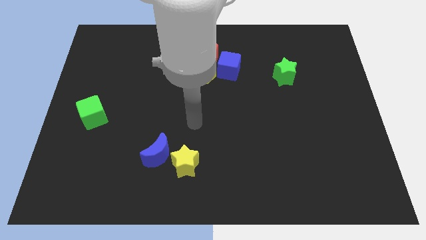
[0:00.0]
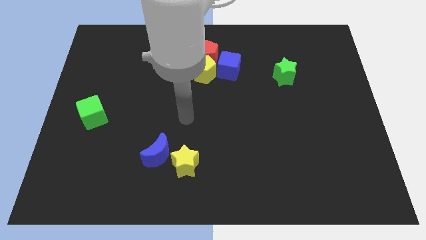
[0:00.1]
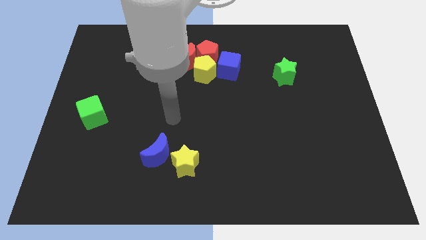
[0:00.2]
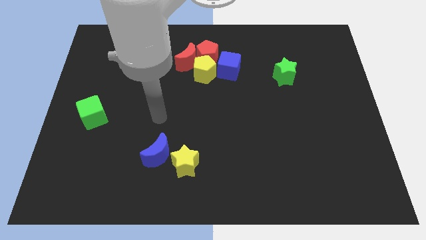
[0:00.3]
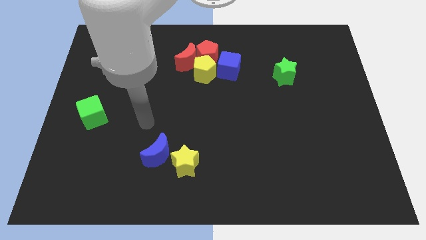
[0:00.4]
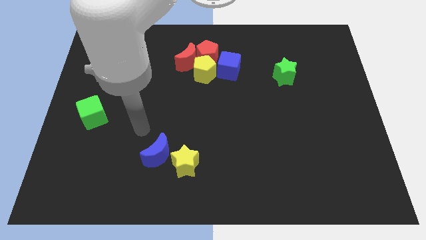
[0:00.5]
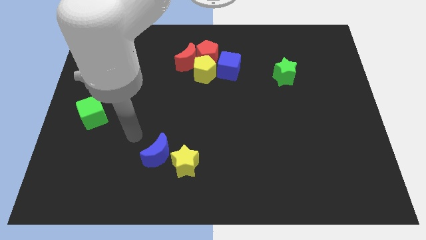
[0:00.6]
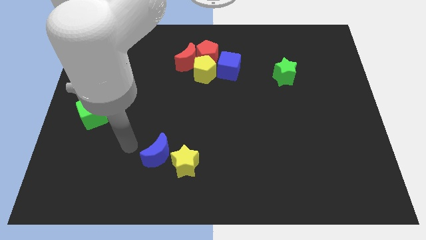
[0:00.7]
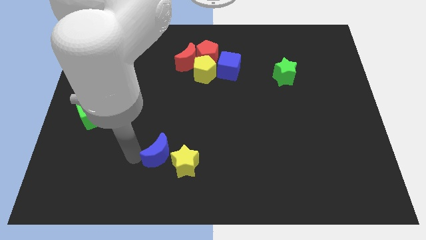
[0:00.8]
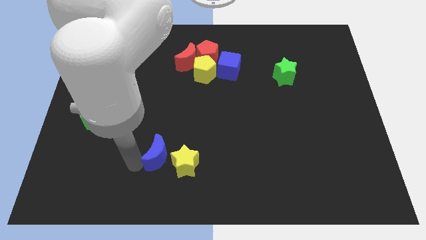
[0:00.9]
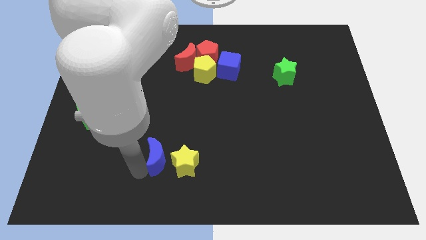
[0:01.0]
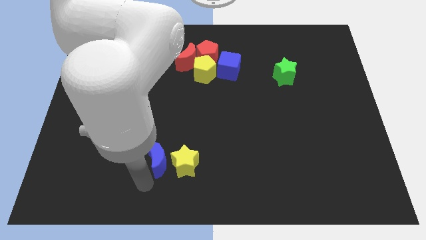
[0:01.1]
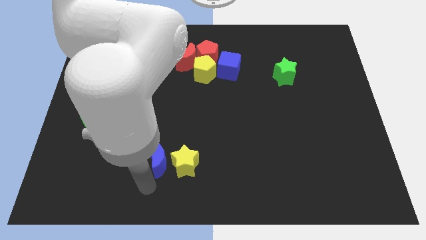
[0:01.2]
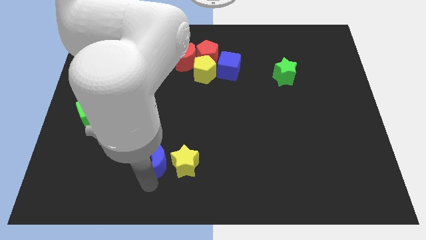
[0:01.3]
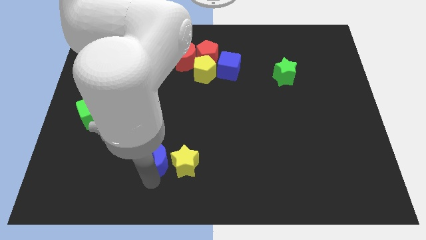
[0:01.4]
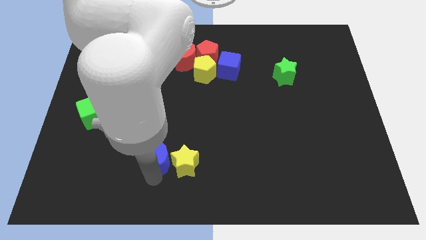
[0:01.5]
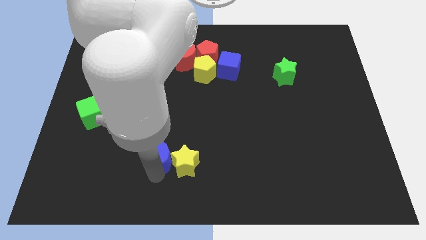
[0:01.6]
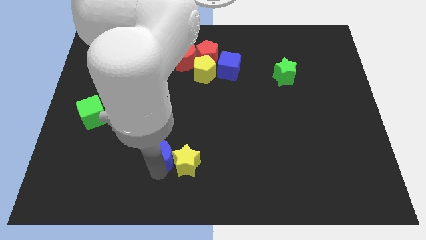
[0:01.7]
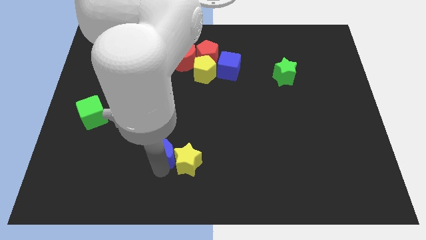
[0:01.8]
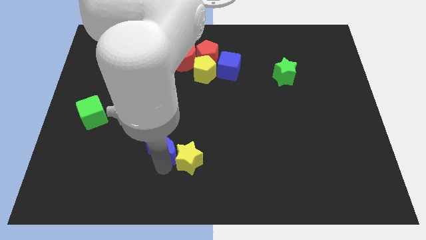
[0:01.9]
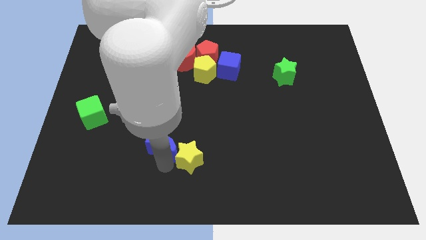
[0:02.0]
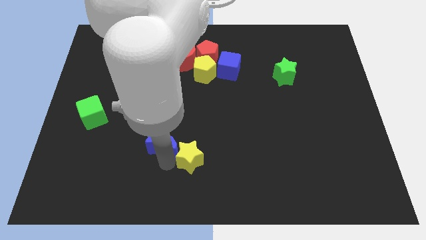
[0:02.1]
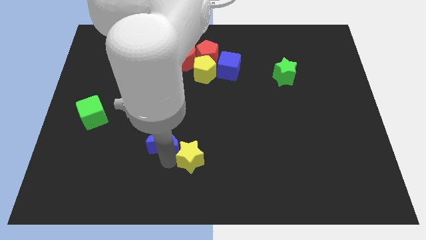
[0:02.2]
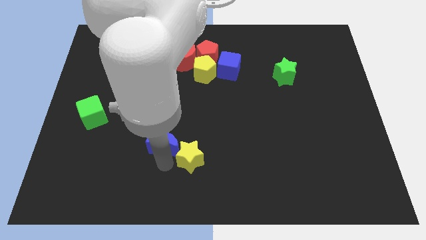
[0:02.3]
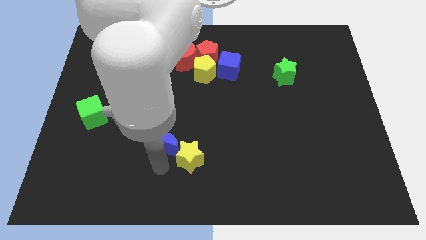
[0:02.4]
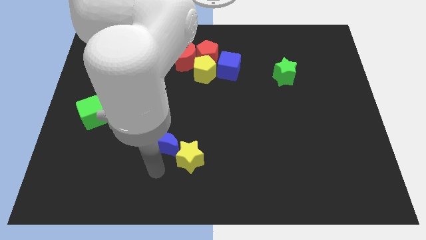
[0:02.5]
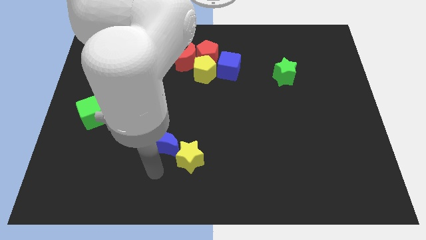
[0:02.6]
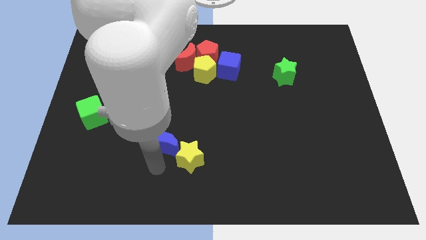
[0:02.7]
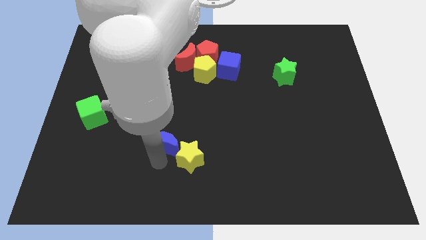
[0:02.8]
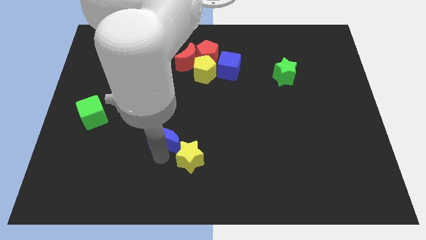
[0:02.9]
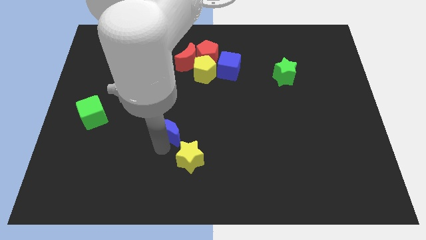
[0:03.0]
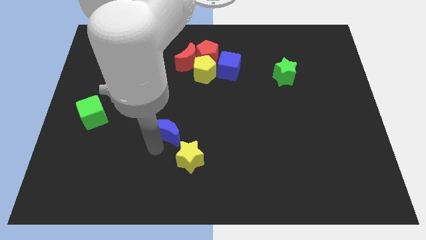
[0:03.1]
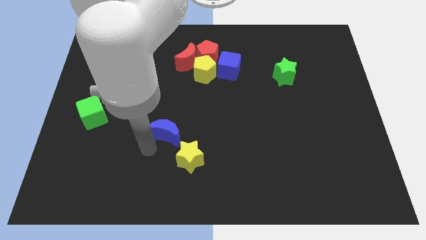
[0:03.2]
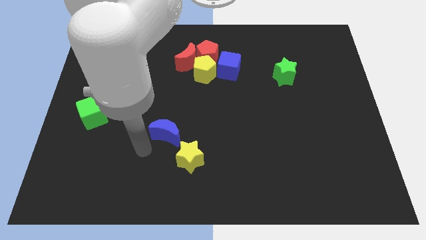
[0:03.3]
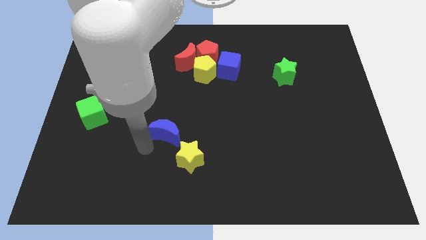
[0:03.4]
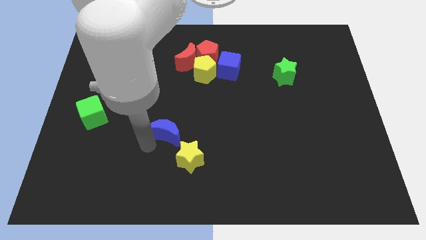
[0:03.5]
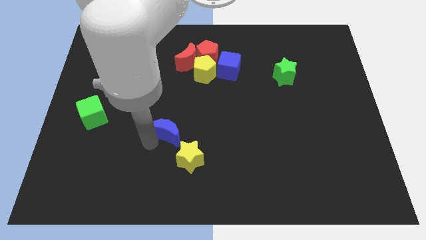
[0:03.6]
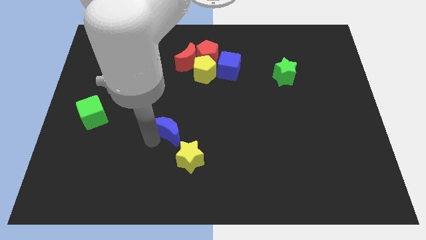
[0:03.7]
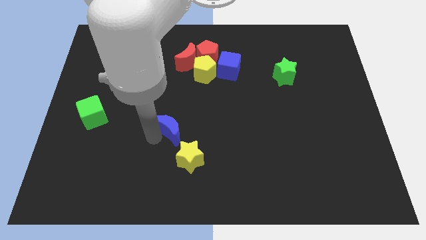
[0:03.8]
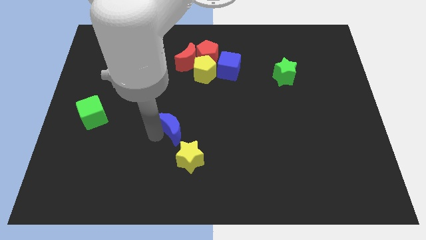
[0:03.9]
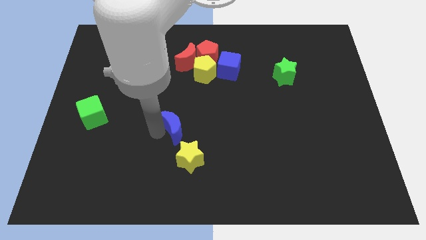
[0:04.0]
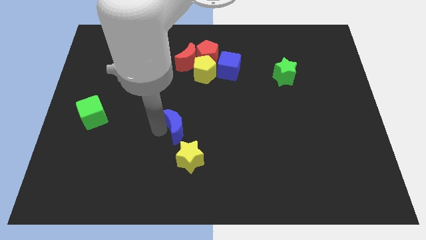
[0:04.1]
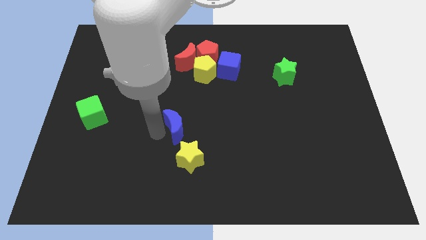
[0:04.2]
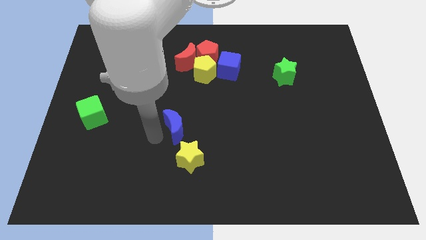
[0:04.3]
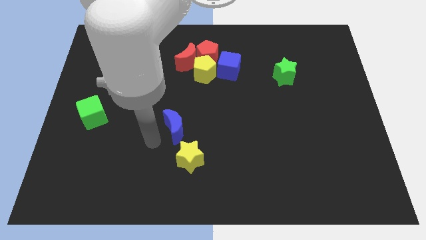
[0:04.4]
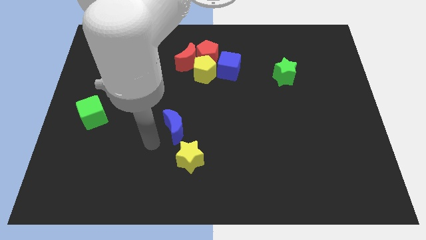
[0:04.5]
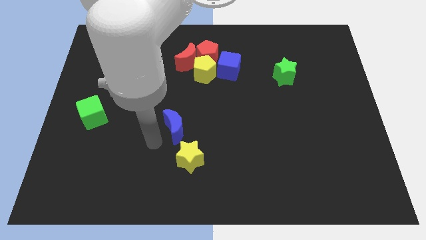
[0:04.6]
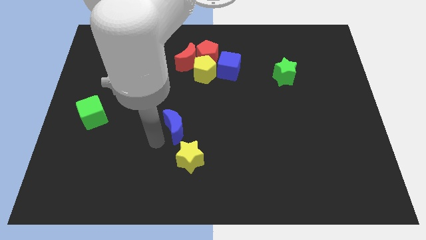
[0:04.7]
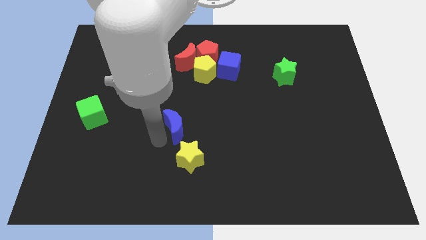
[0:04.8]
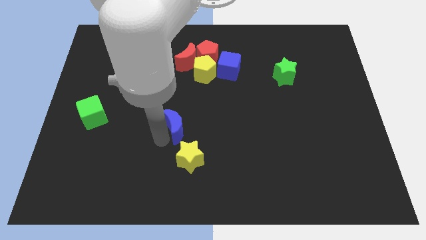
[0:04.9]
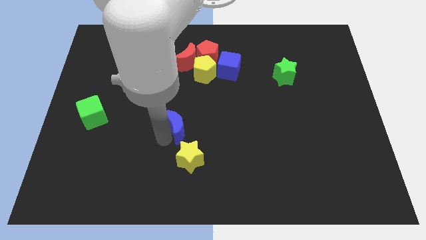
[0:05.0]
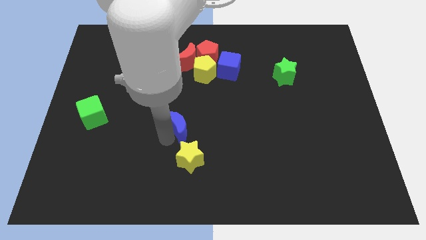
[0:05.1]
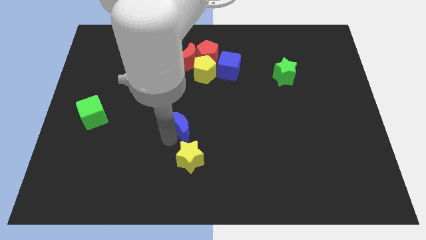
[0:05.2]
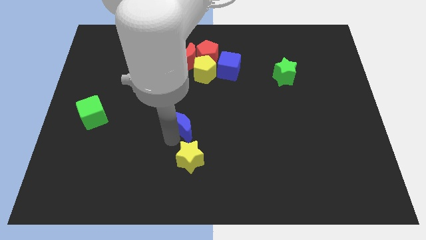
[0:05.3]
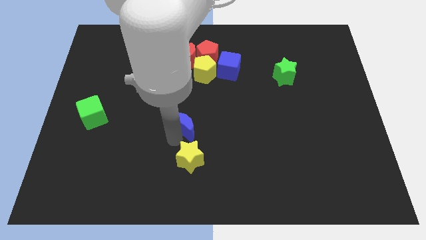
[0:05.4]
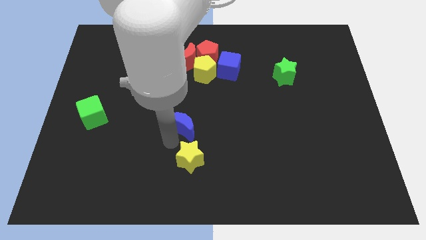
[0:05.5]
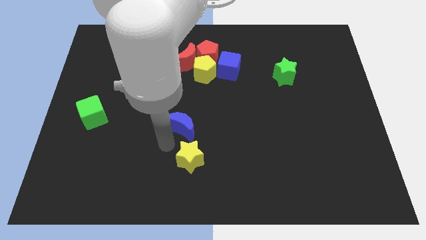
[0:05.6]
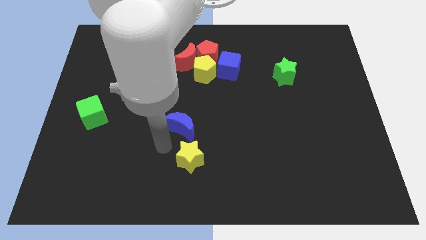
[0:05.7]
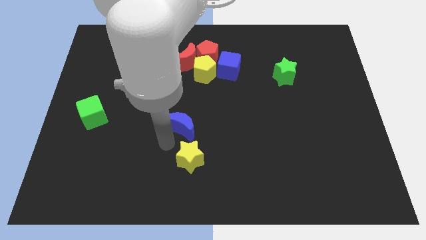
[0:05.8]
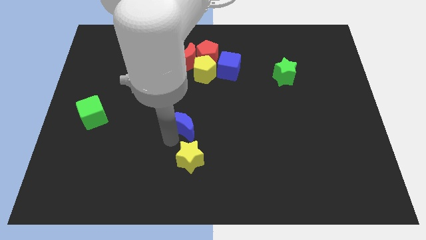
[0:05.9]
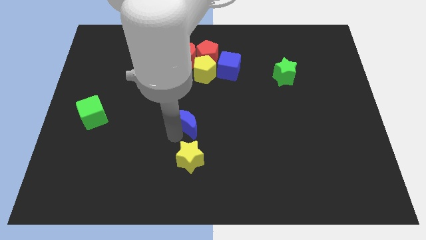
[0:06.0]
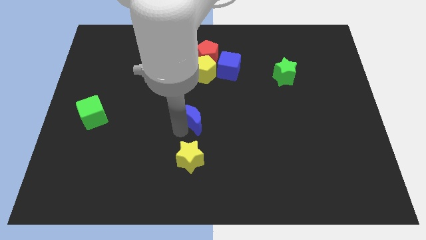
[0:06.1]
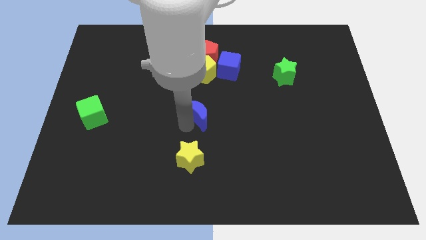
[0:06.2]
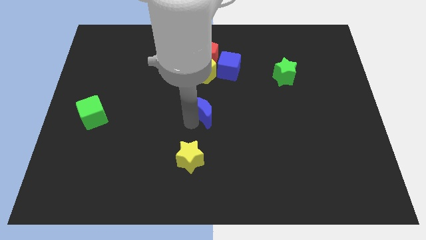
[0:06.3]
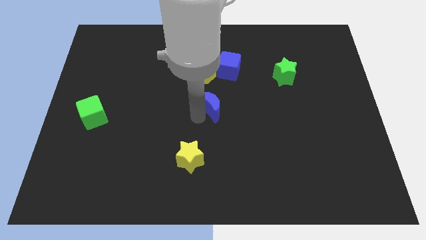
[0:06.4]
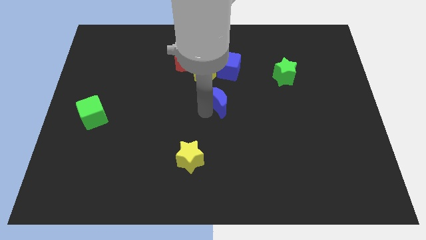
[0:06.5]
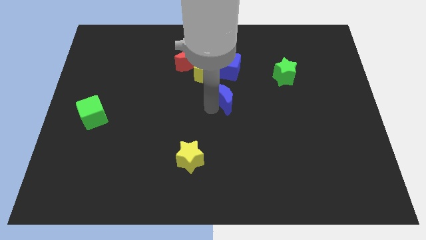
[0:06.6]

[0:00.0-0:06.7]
push the blue moon up and right

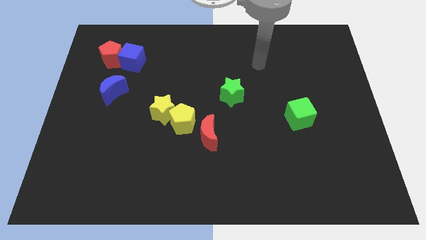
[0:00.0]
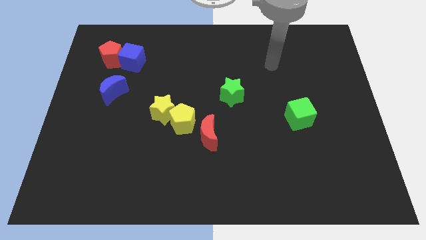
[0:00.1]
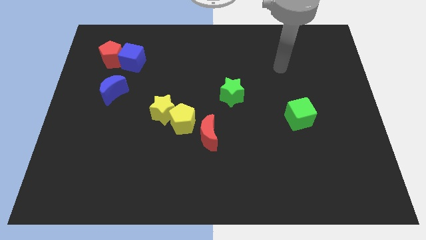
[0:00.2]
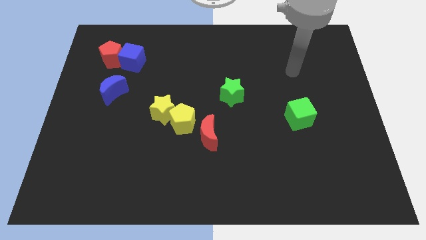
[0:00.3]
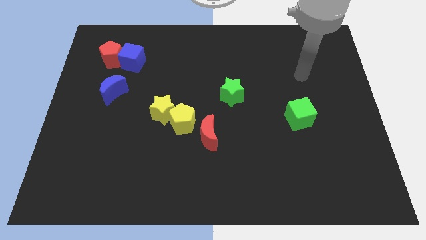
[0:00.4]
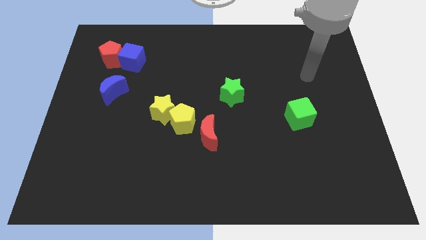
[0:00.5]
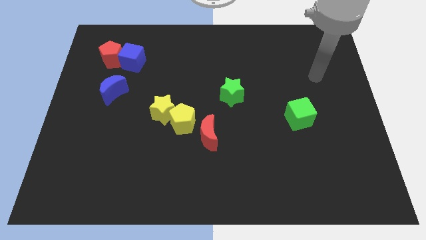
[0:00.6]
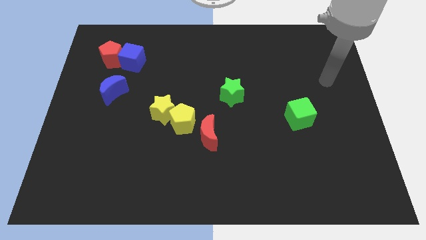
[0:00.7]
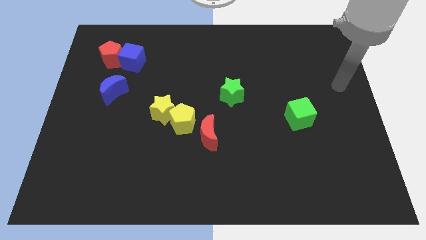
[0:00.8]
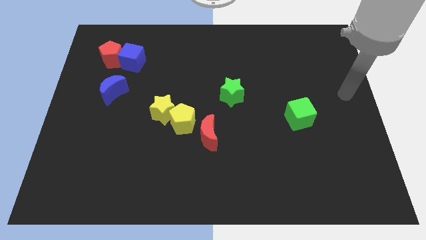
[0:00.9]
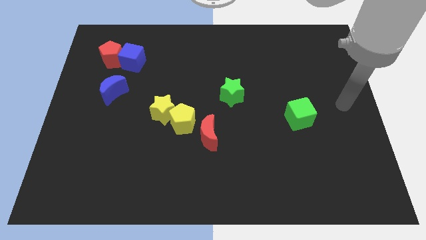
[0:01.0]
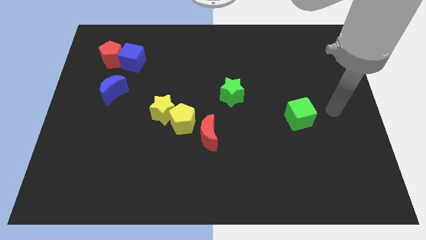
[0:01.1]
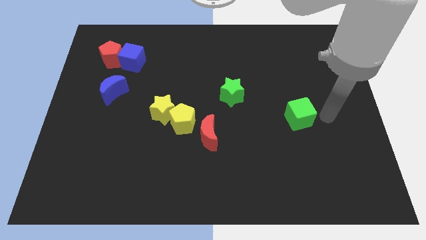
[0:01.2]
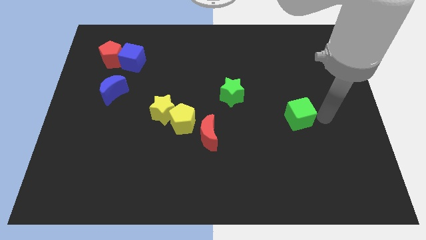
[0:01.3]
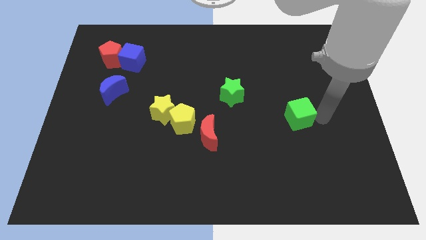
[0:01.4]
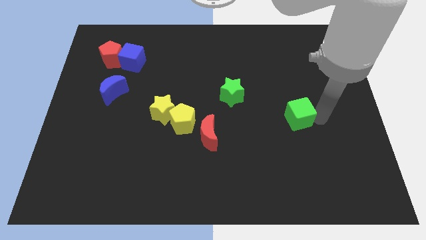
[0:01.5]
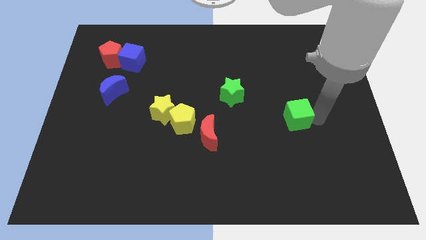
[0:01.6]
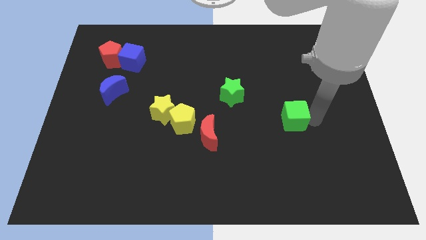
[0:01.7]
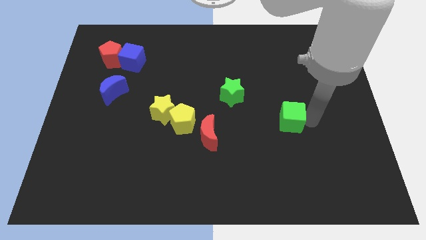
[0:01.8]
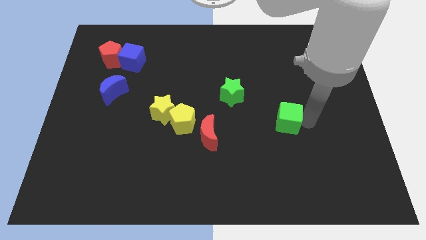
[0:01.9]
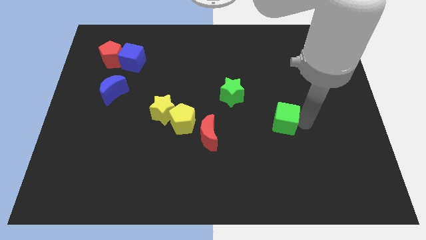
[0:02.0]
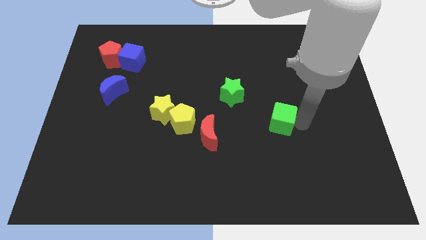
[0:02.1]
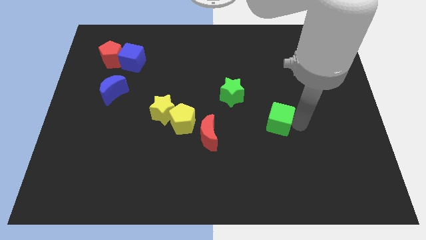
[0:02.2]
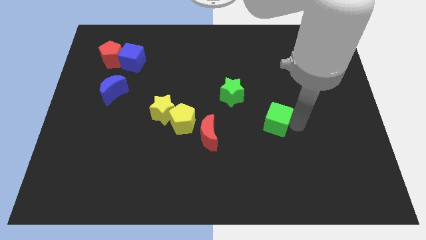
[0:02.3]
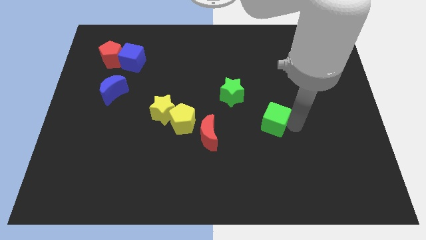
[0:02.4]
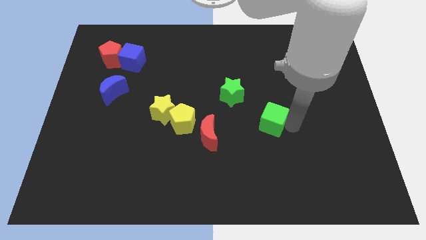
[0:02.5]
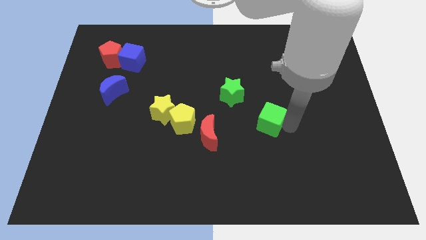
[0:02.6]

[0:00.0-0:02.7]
push the green cube a bit to the left
